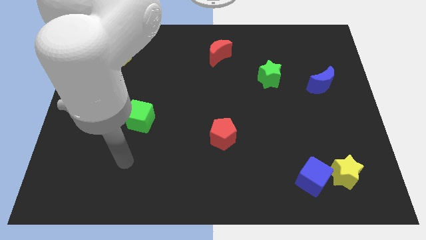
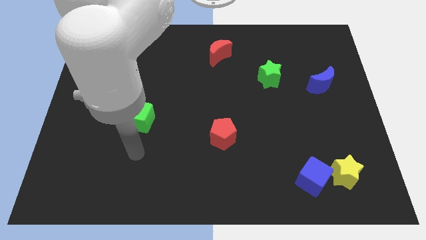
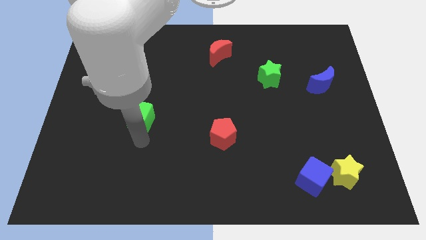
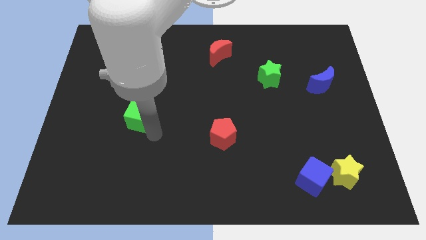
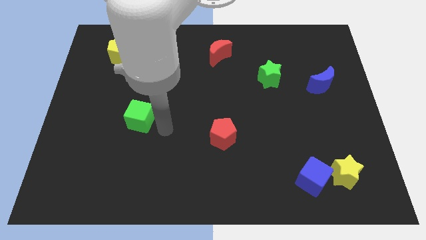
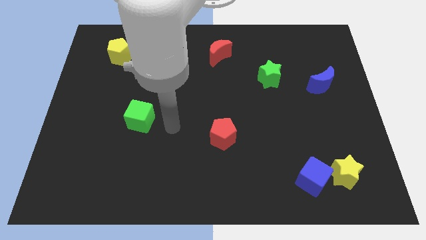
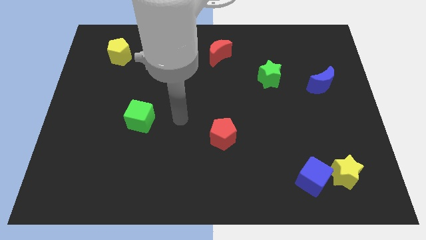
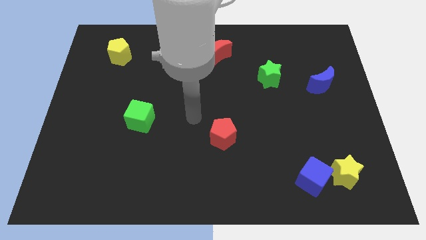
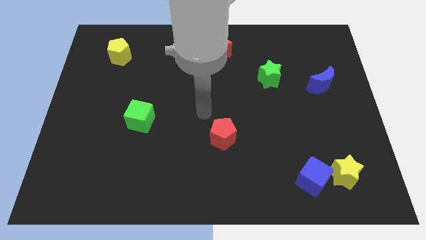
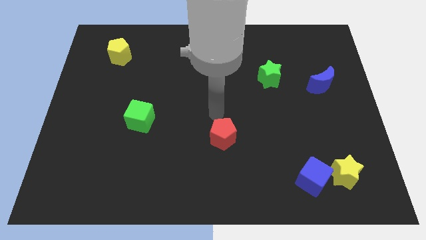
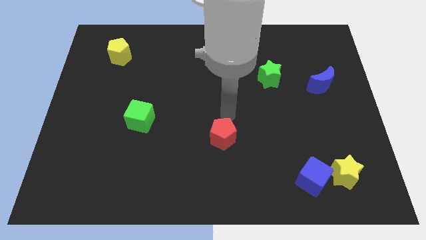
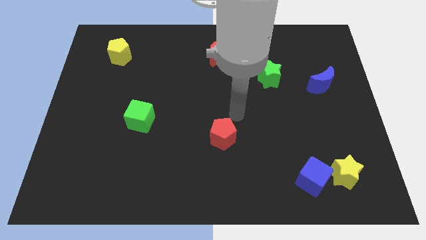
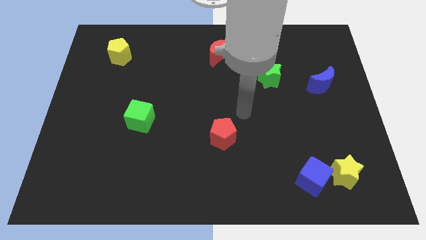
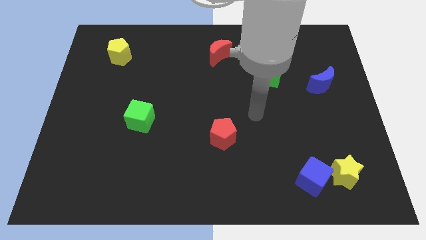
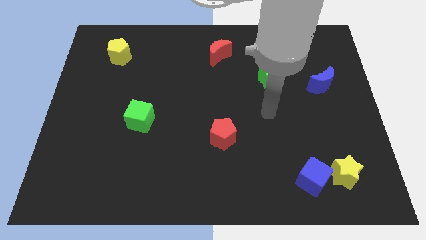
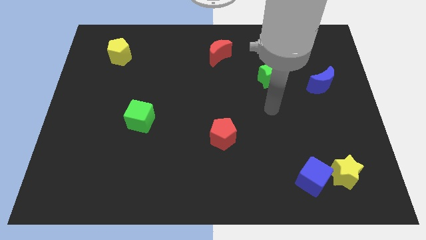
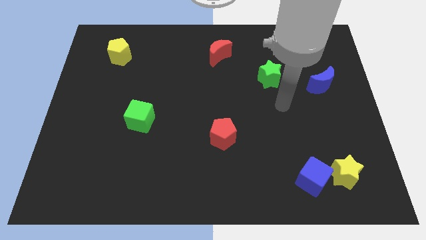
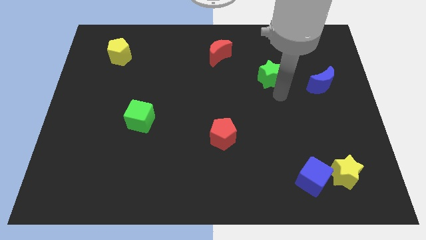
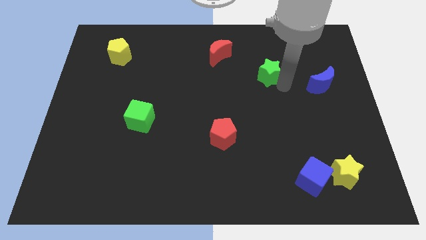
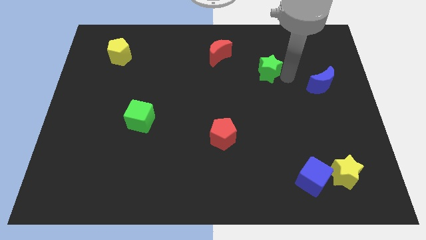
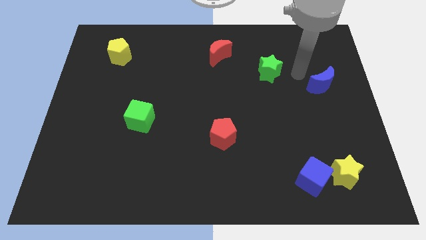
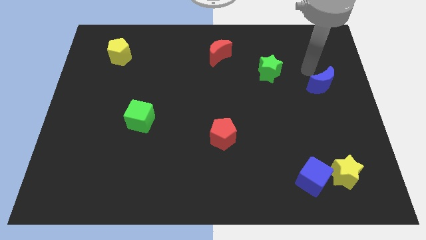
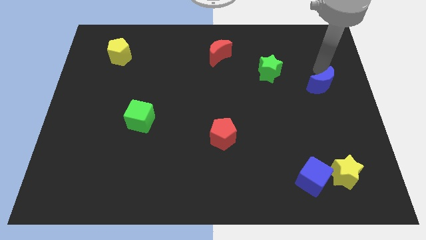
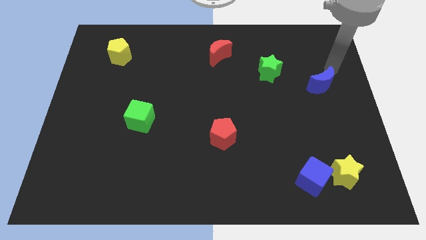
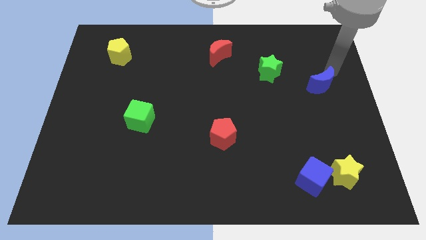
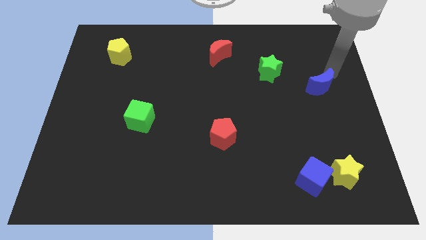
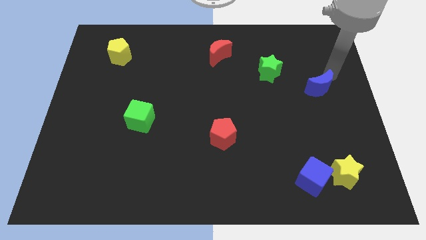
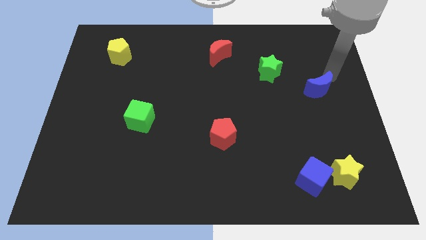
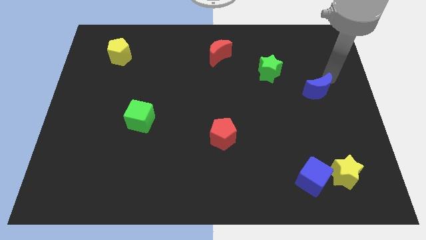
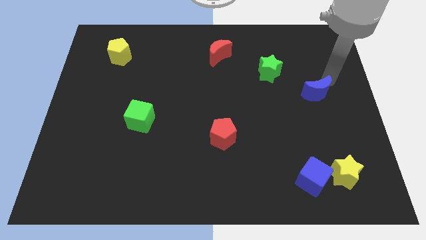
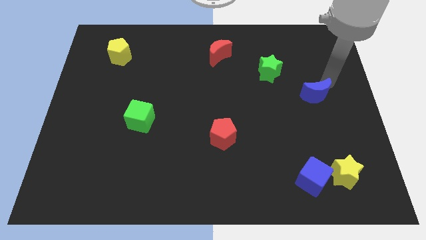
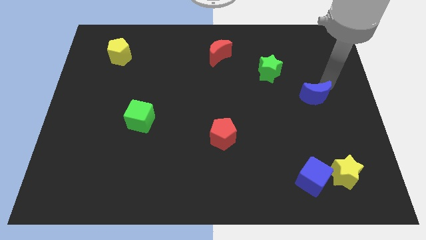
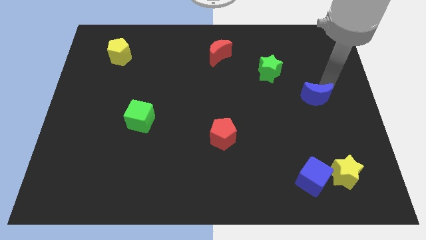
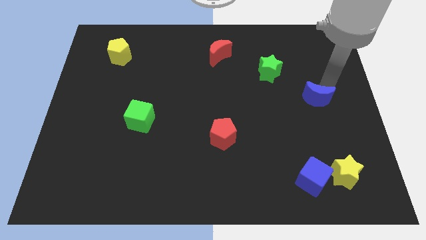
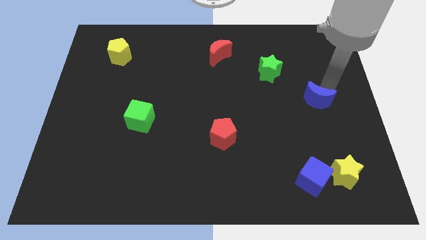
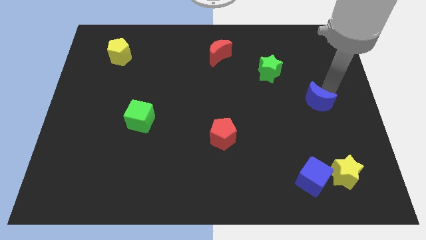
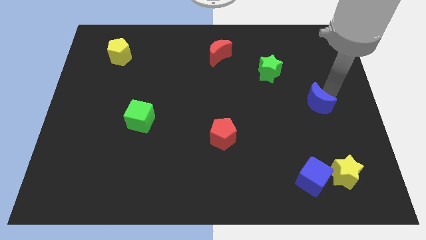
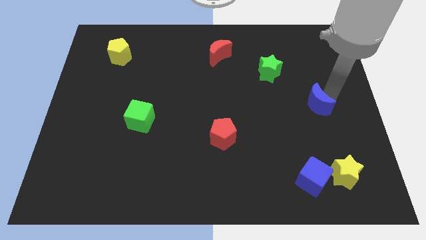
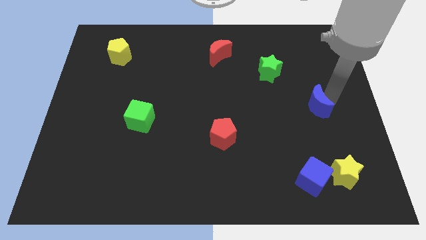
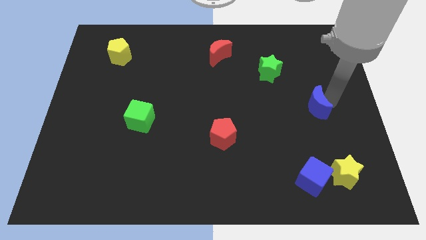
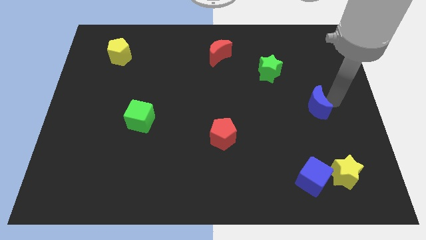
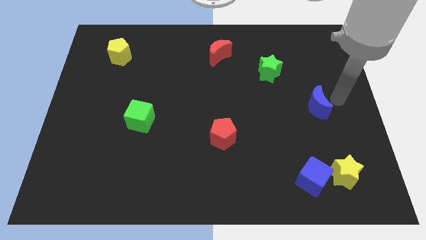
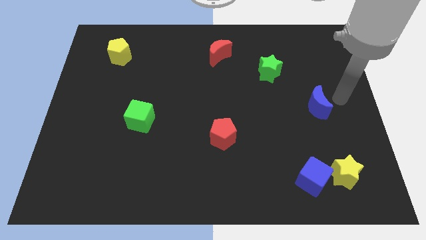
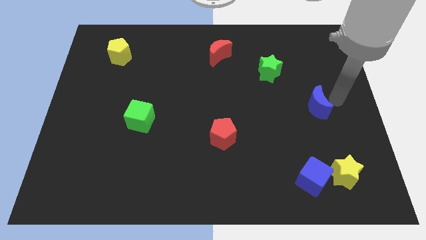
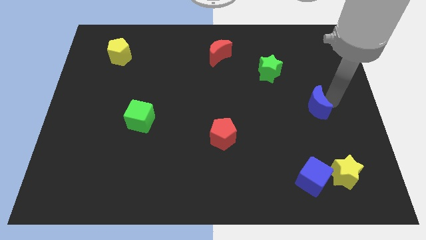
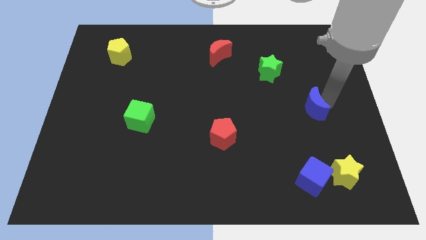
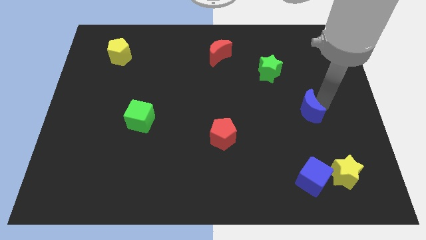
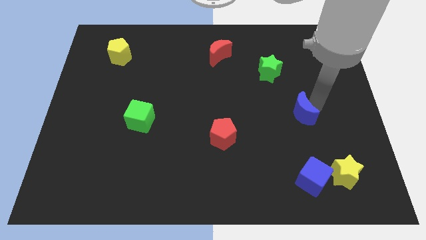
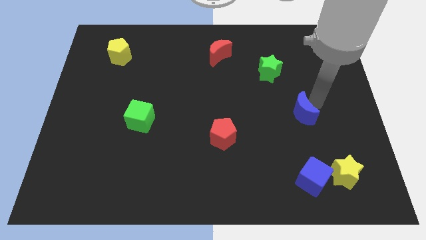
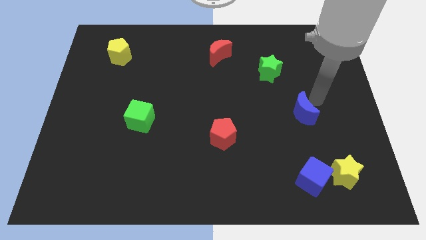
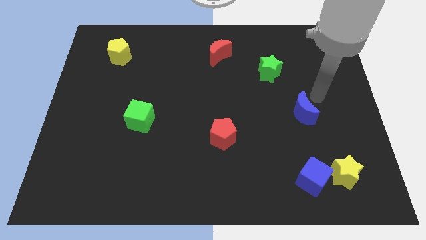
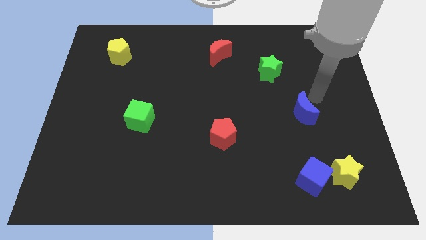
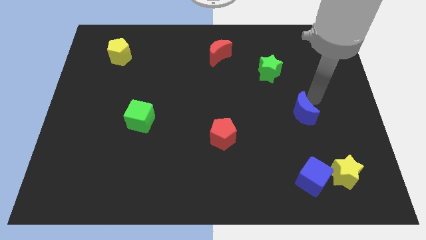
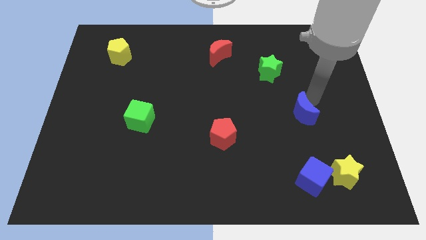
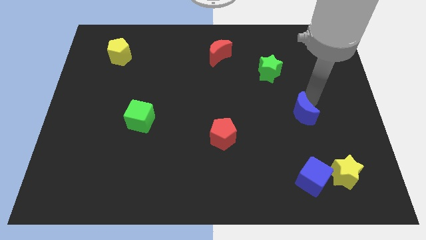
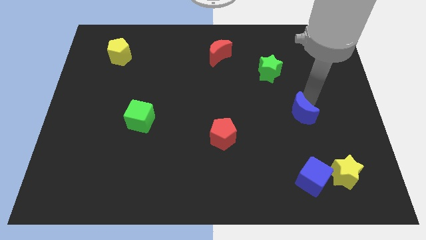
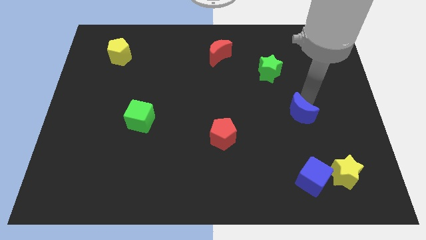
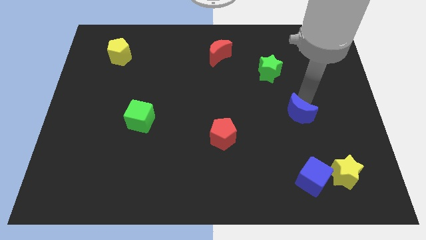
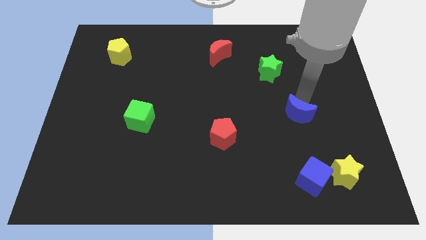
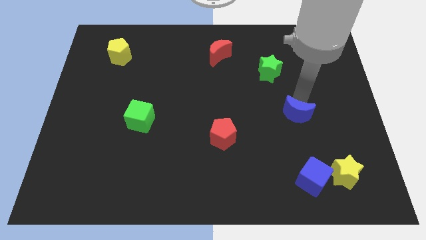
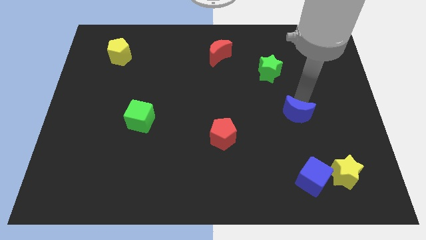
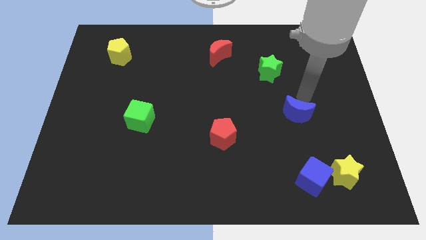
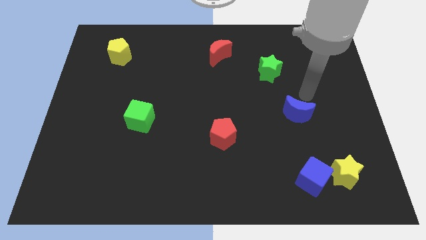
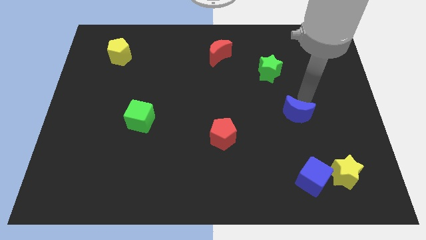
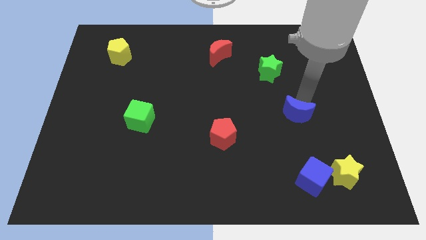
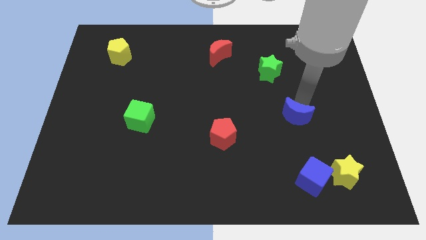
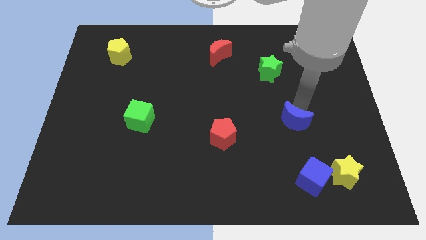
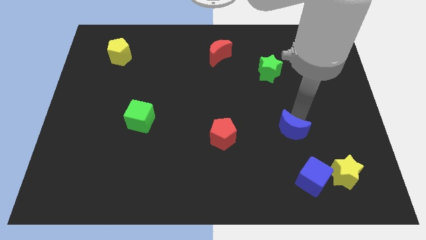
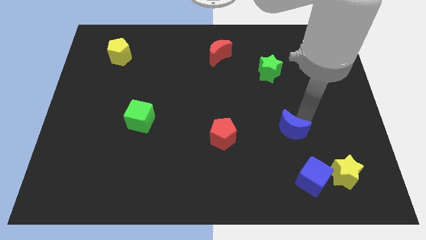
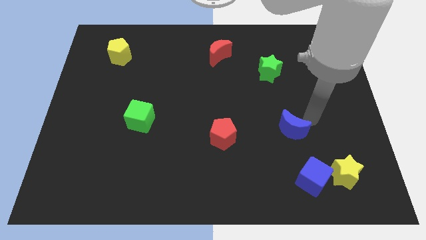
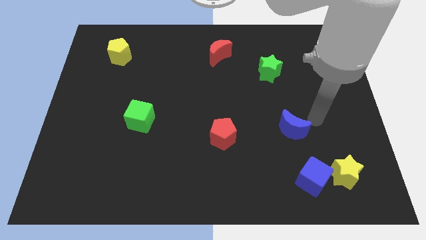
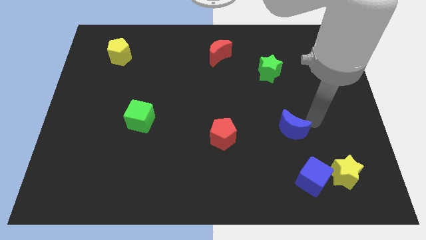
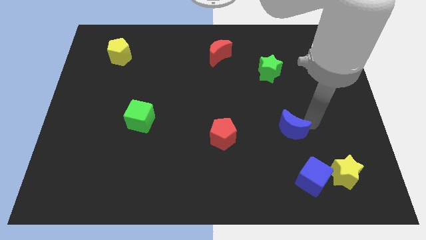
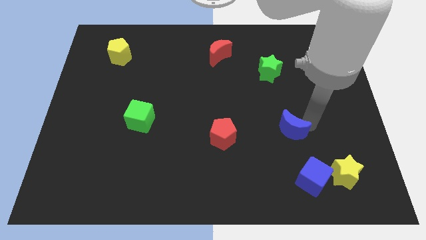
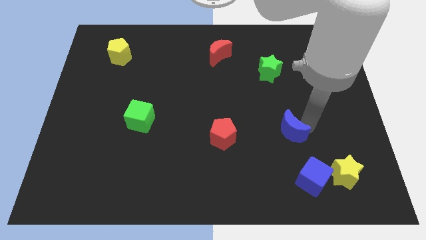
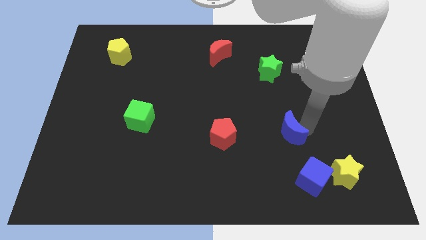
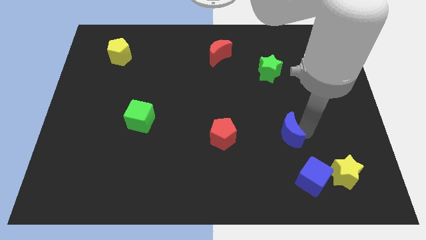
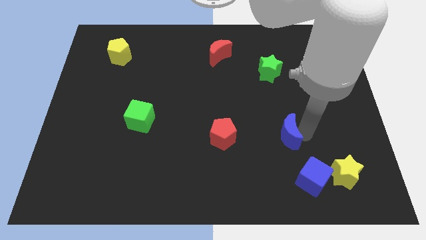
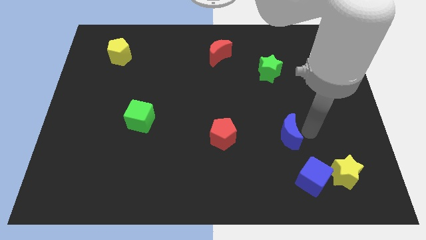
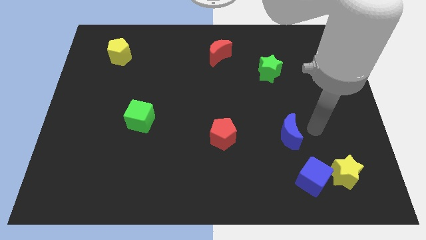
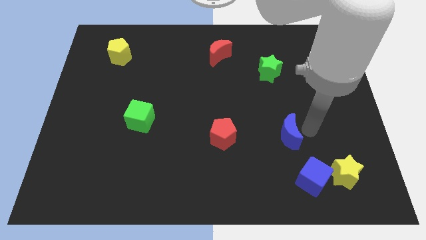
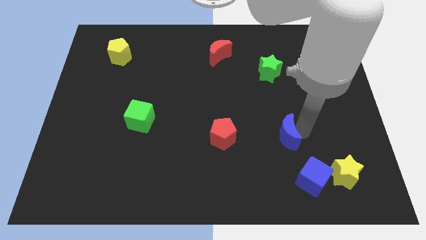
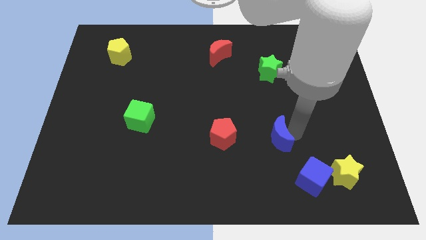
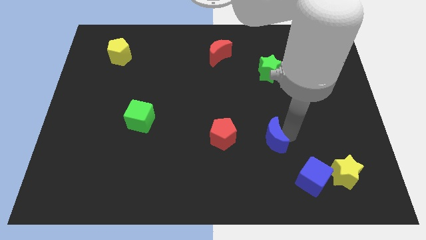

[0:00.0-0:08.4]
slide the blue moon downwards and then left

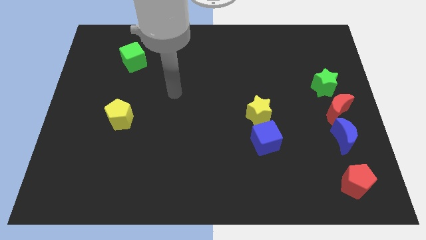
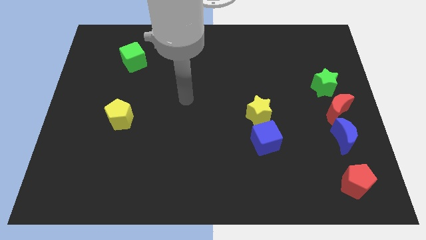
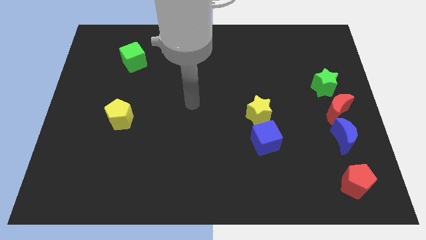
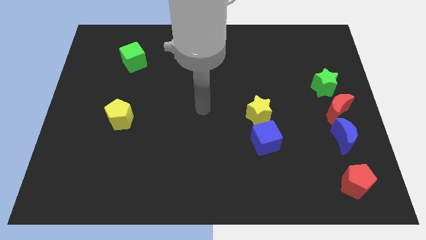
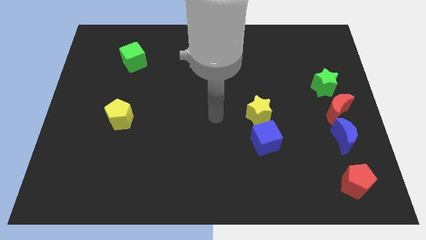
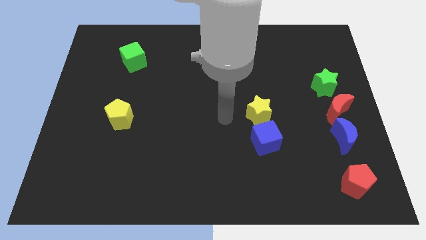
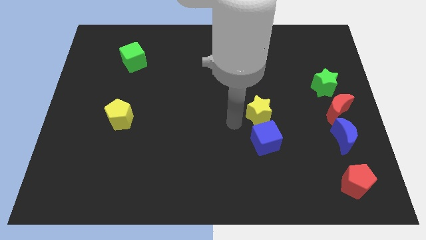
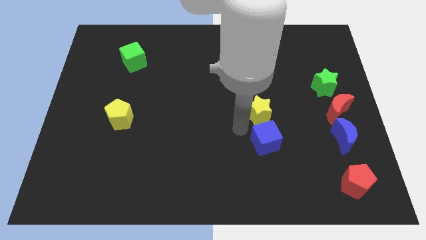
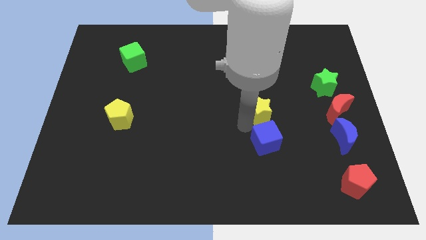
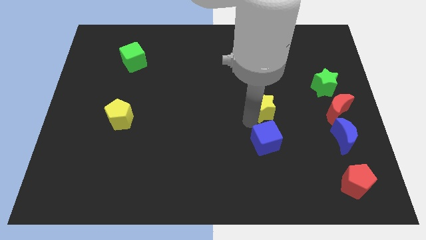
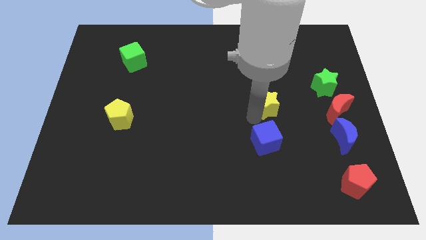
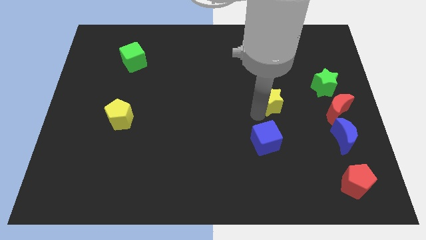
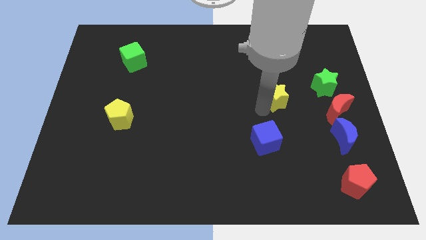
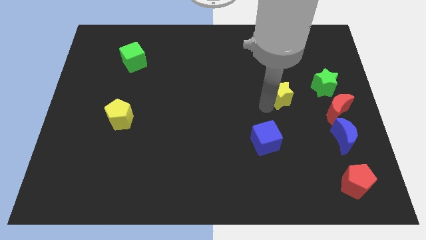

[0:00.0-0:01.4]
slide the yellow star a little diagonally upwards and right
